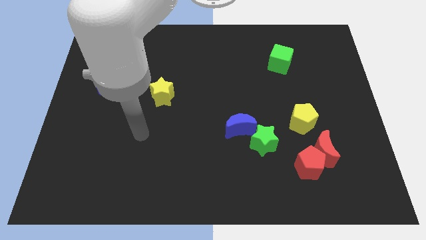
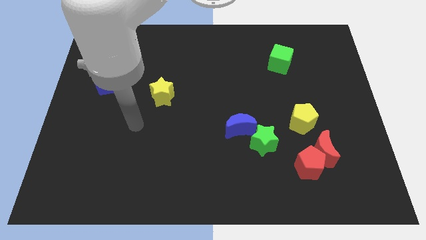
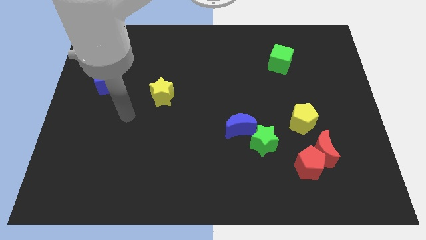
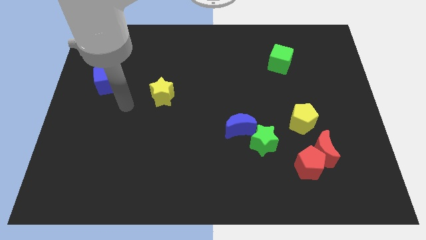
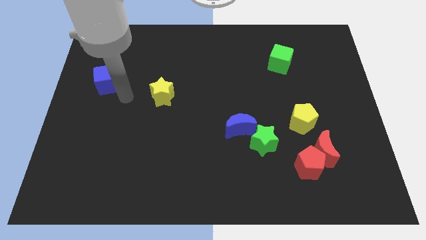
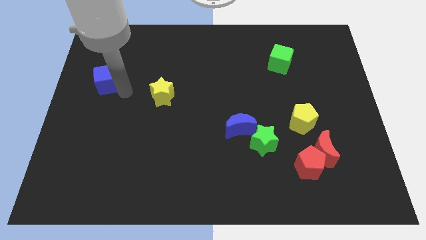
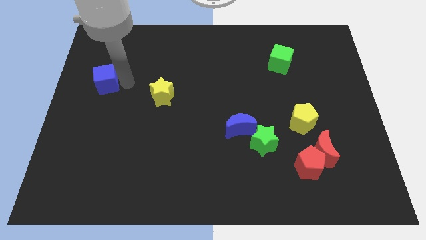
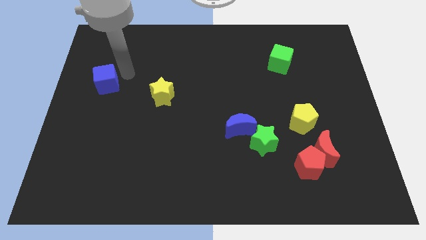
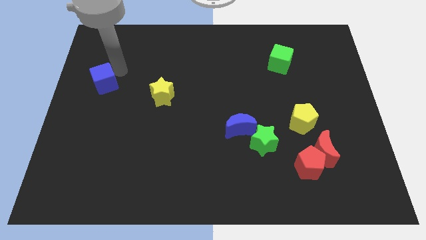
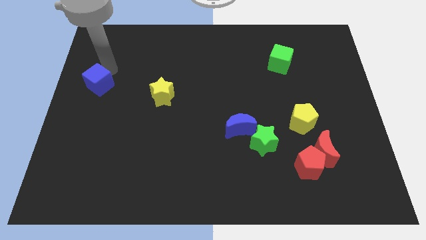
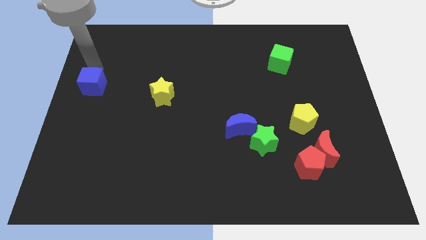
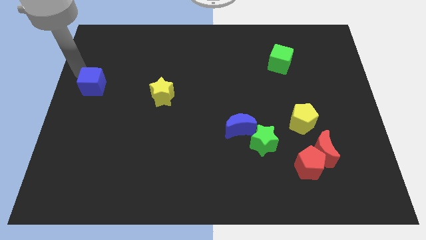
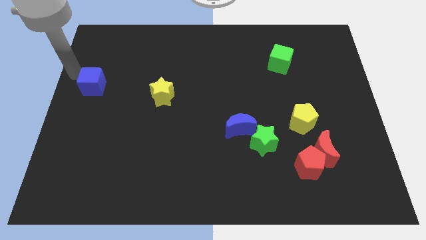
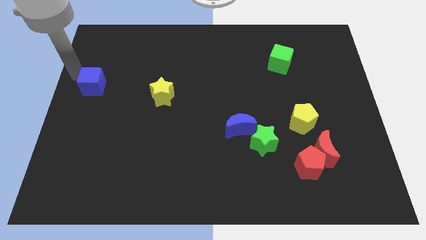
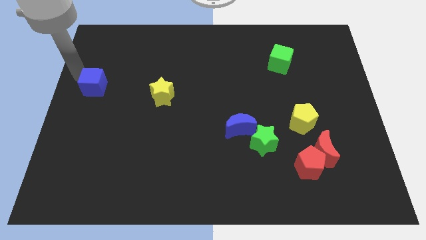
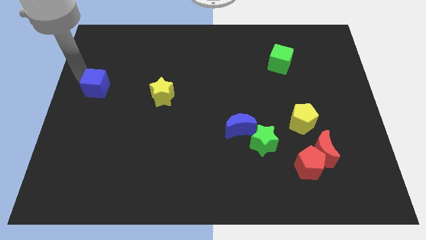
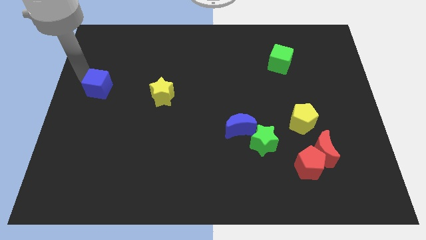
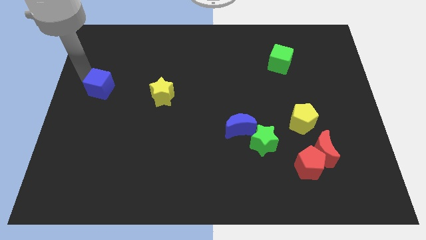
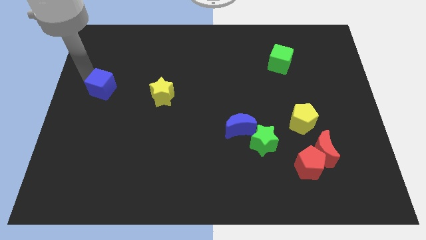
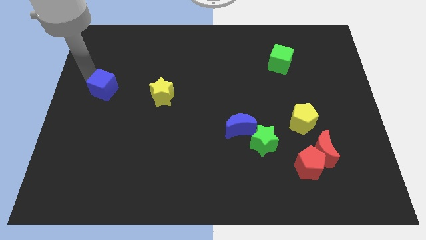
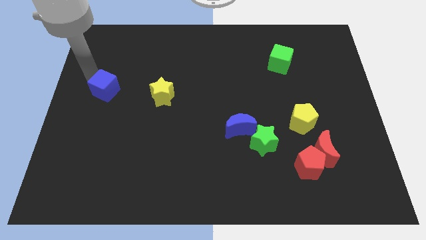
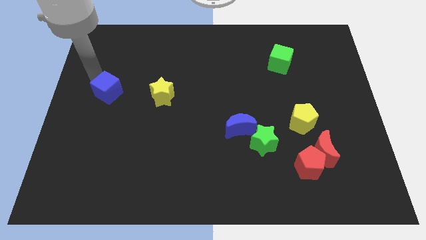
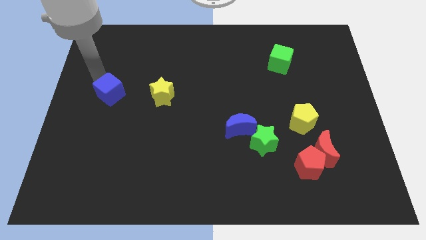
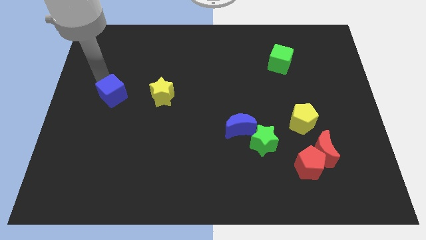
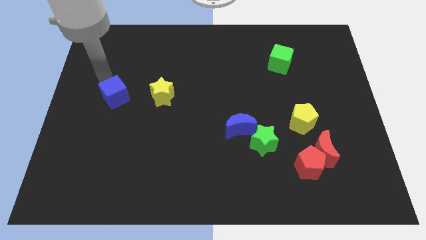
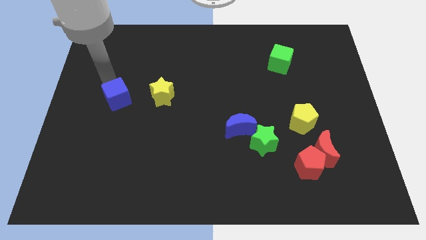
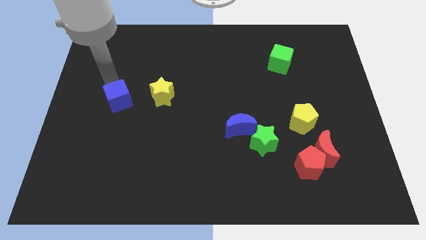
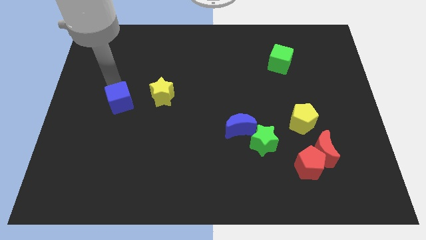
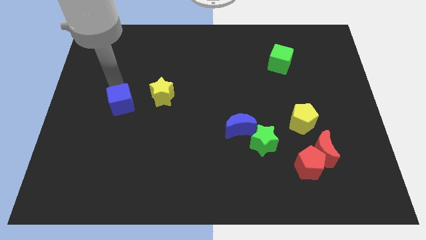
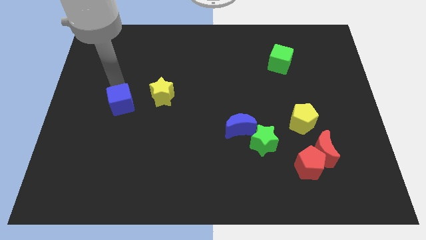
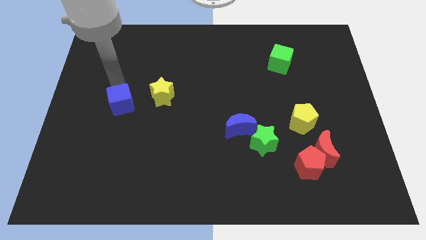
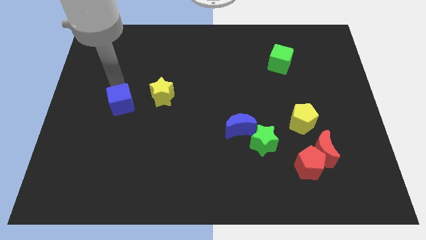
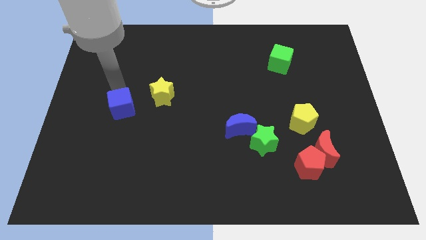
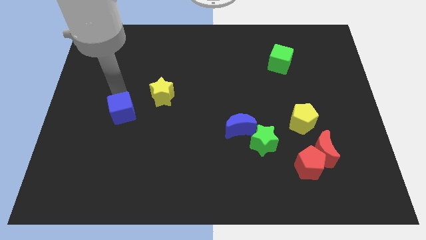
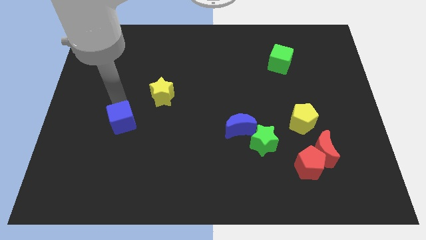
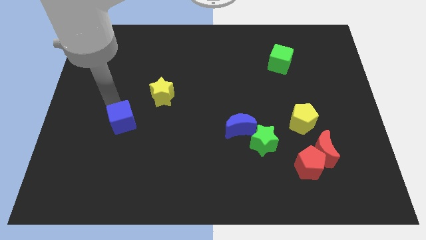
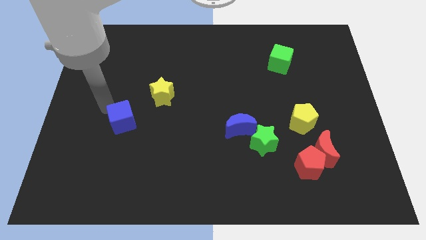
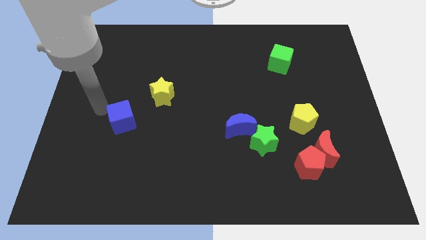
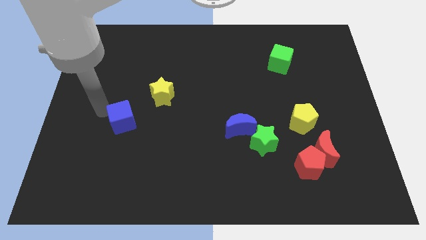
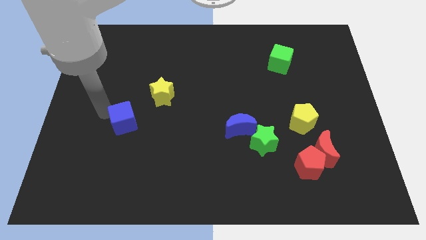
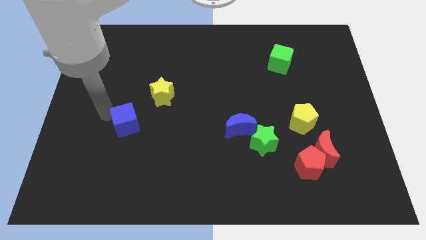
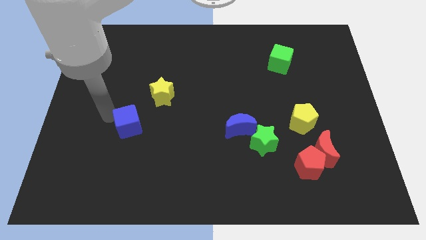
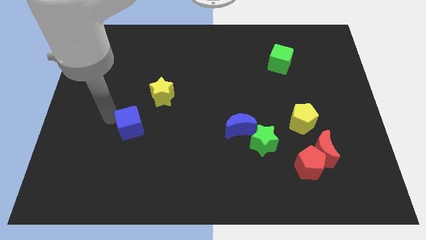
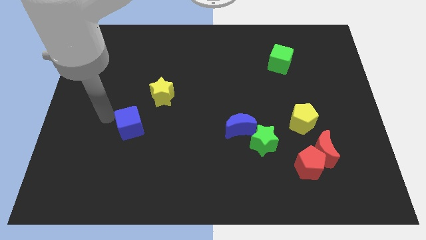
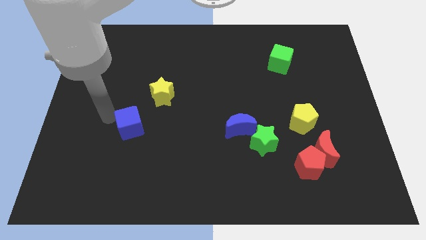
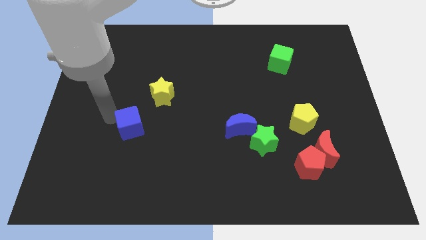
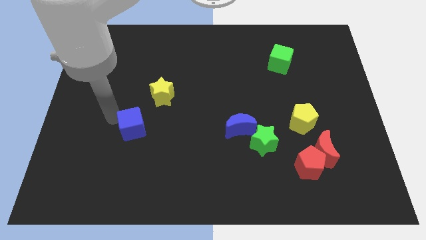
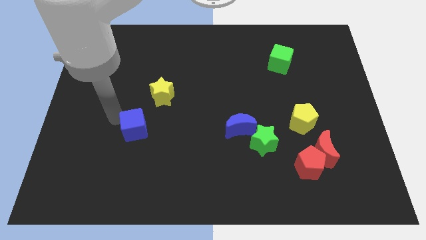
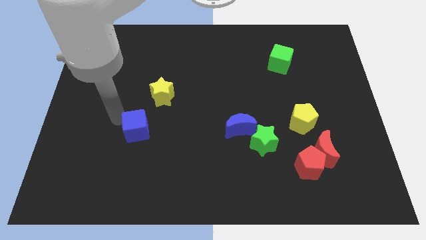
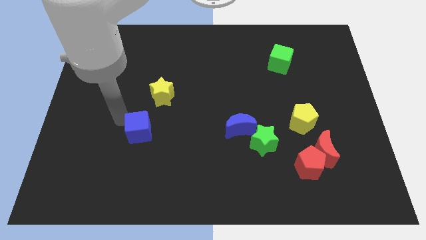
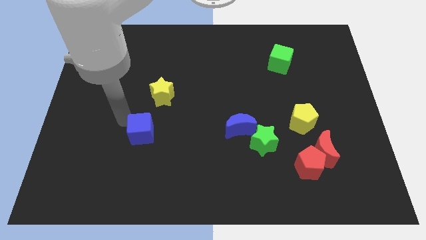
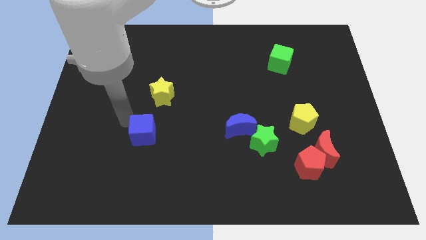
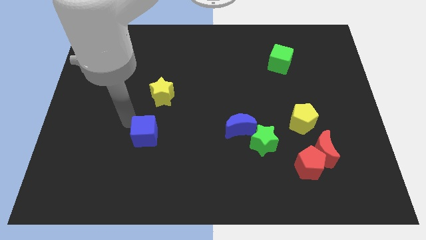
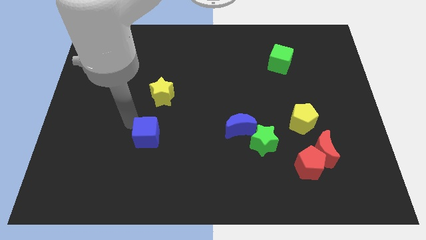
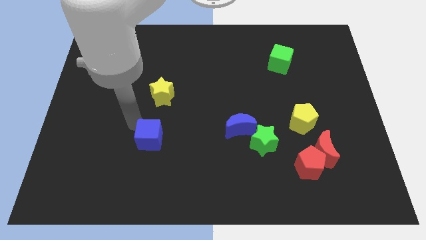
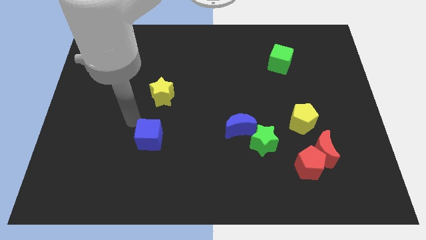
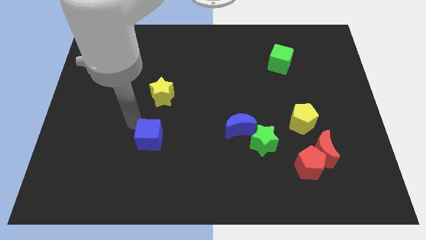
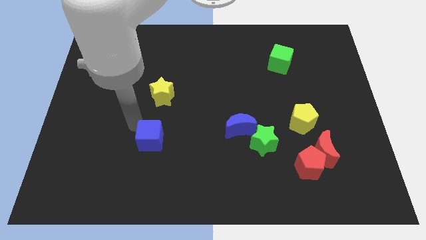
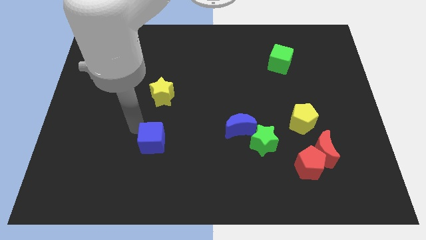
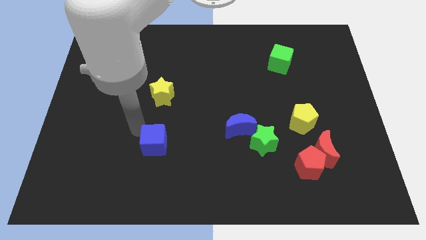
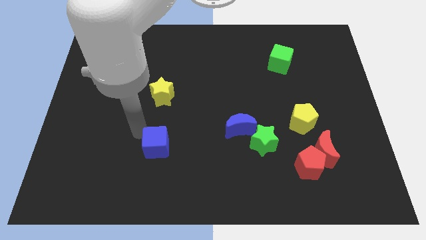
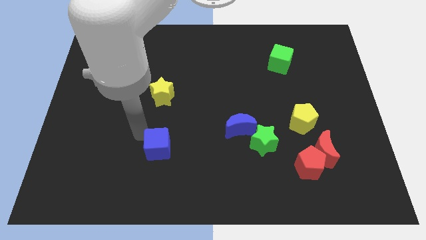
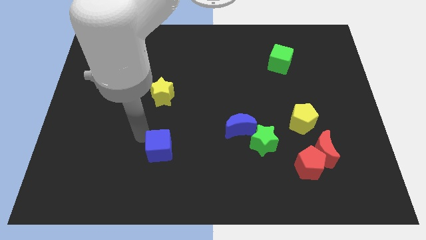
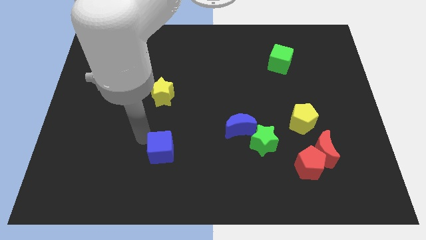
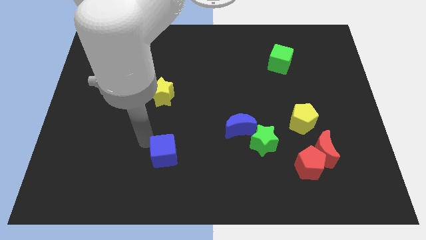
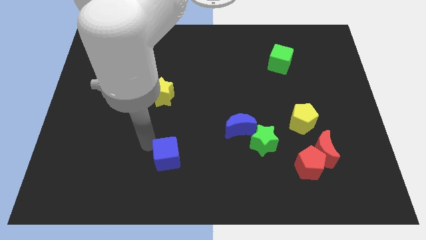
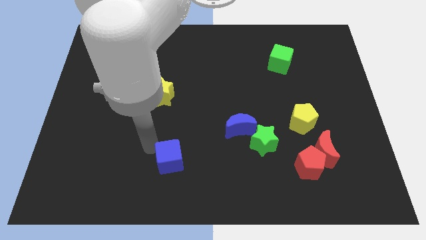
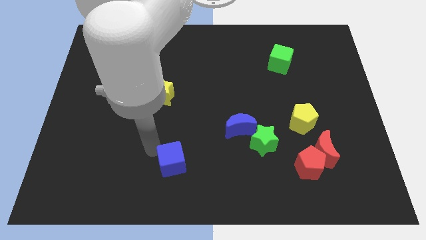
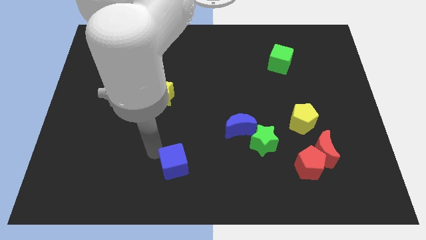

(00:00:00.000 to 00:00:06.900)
move the blue cube to the bottom side
